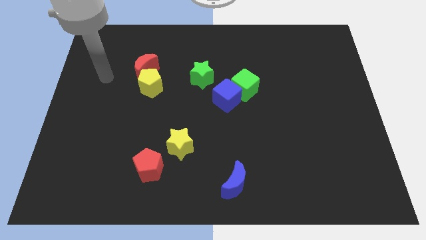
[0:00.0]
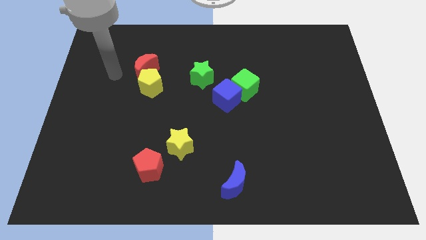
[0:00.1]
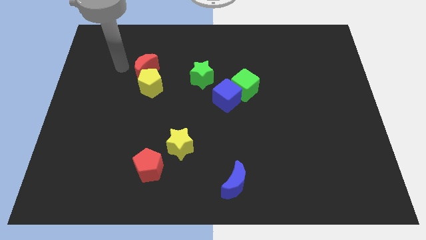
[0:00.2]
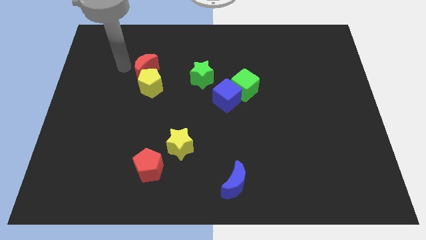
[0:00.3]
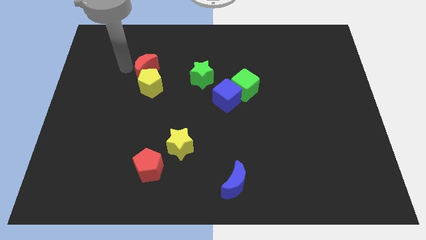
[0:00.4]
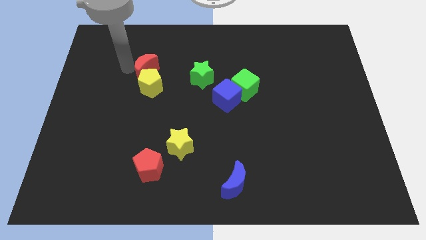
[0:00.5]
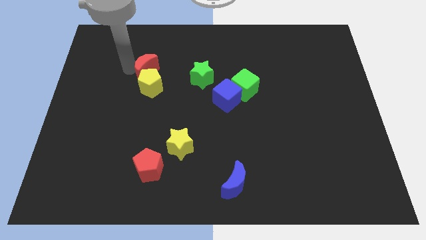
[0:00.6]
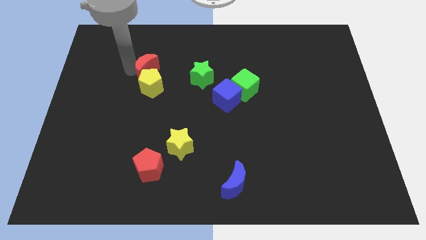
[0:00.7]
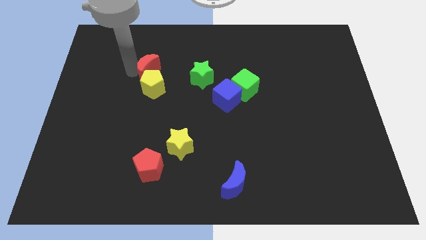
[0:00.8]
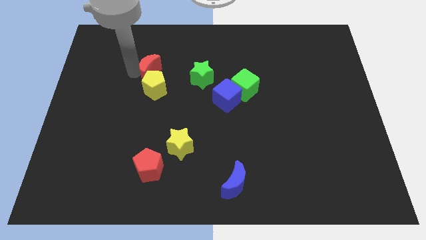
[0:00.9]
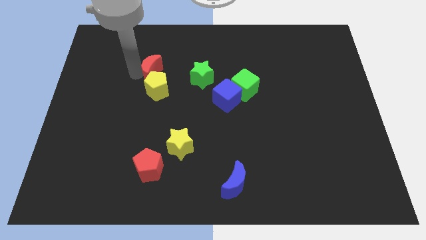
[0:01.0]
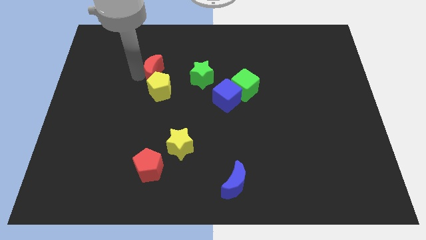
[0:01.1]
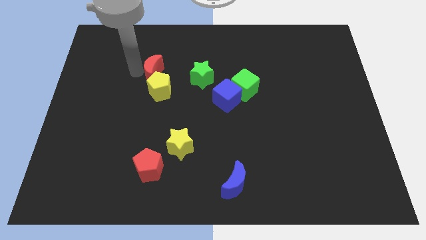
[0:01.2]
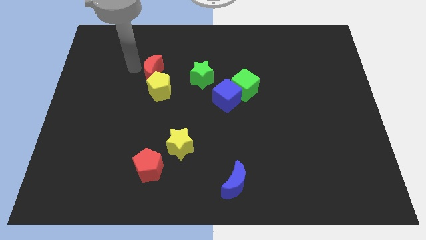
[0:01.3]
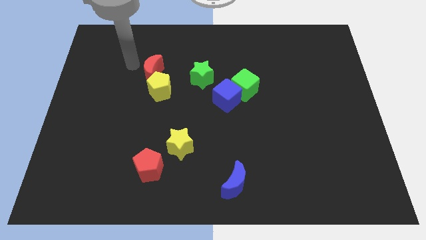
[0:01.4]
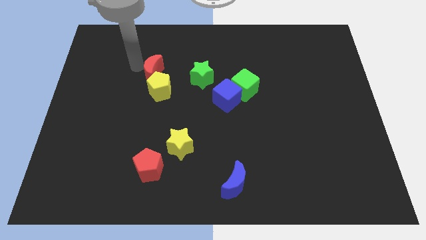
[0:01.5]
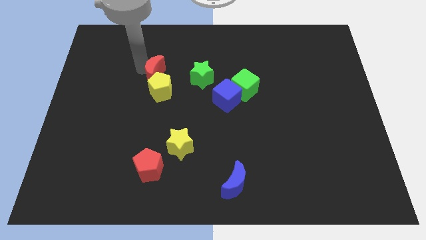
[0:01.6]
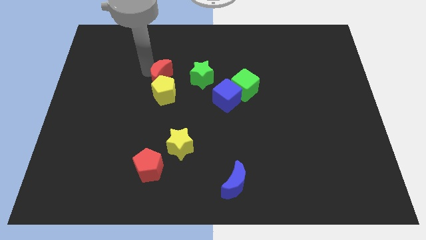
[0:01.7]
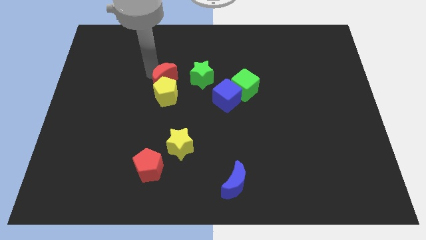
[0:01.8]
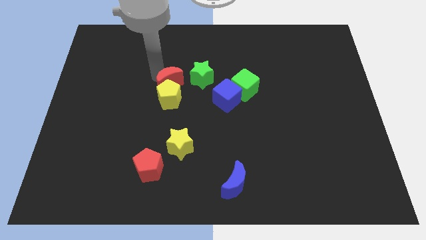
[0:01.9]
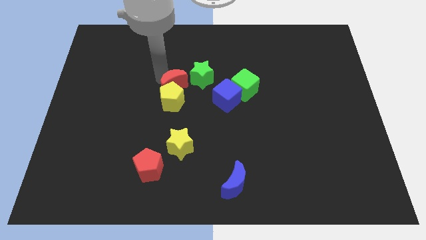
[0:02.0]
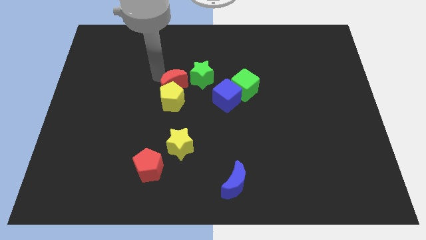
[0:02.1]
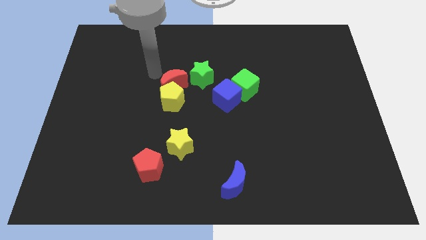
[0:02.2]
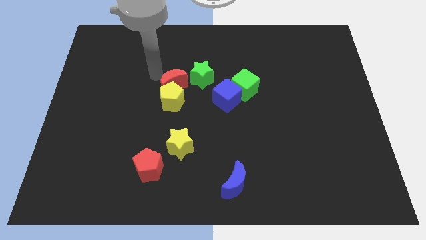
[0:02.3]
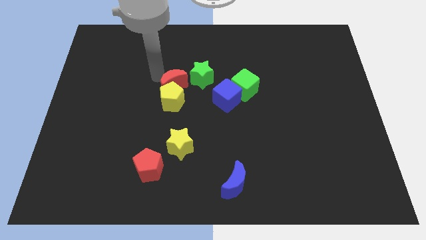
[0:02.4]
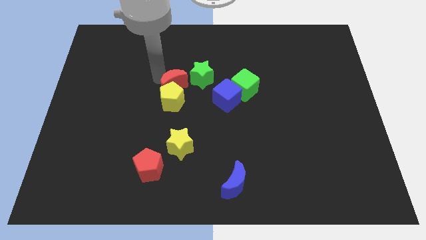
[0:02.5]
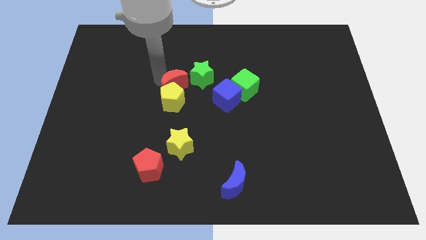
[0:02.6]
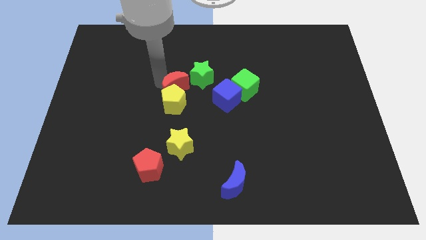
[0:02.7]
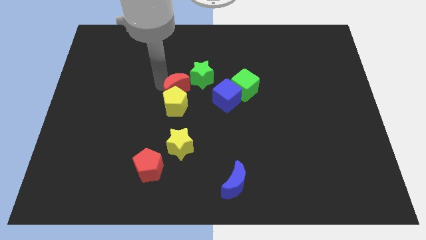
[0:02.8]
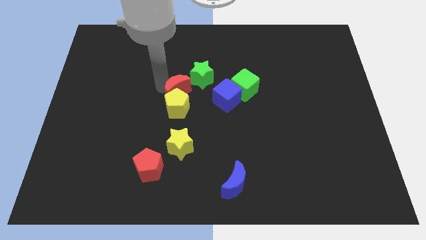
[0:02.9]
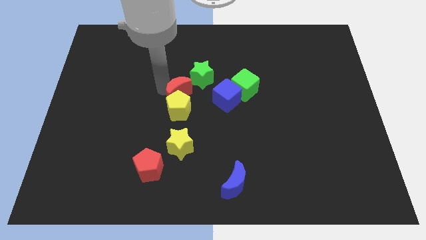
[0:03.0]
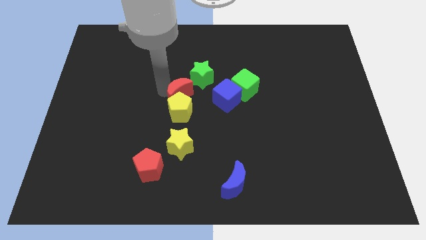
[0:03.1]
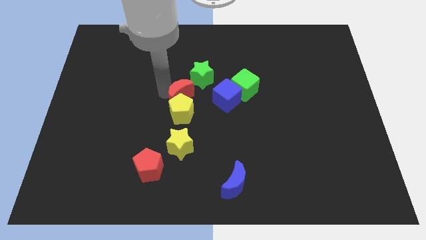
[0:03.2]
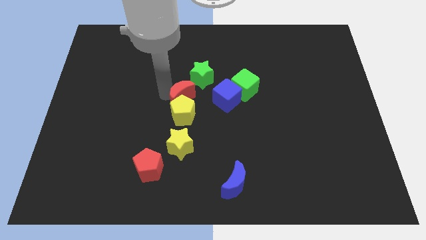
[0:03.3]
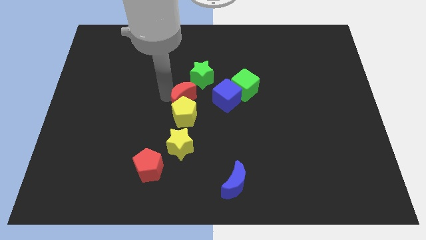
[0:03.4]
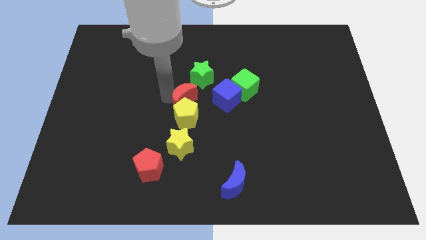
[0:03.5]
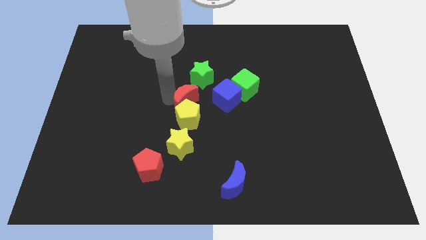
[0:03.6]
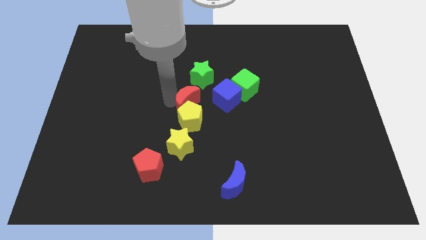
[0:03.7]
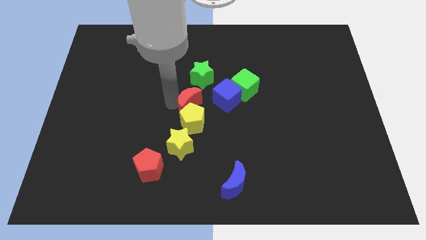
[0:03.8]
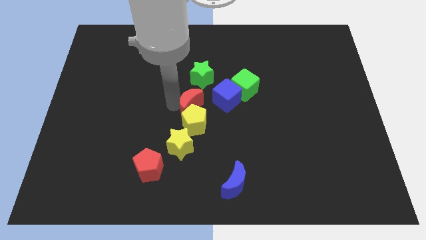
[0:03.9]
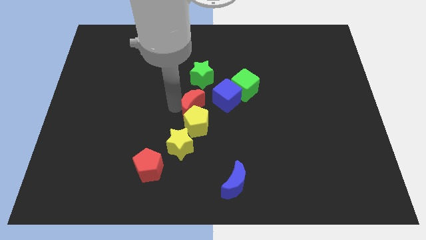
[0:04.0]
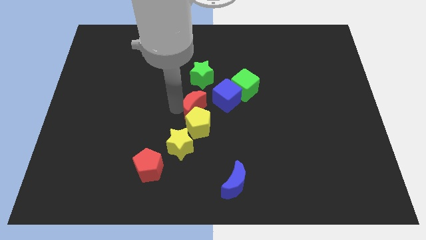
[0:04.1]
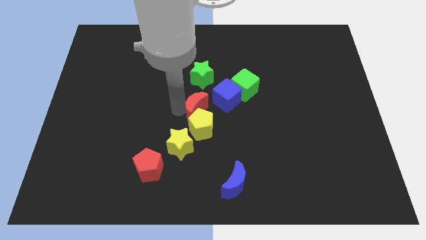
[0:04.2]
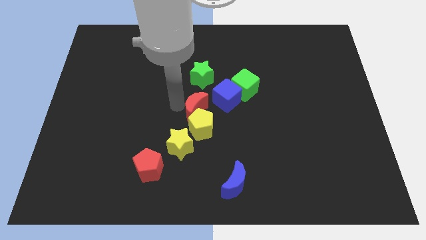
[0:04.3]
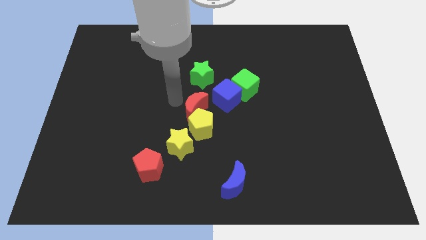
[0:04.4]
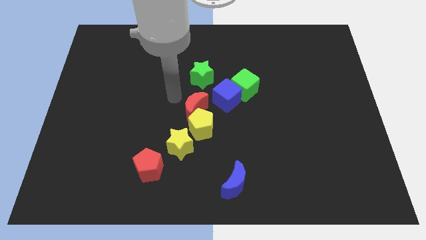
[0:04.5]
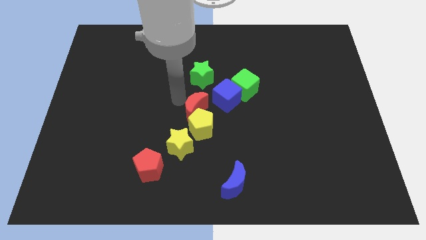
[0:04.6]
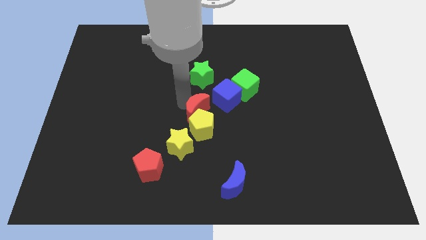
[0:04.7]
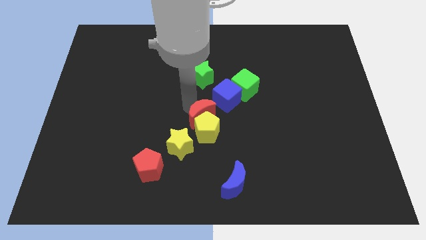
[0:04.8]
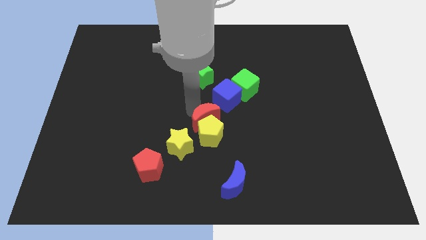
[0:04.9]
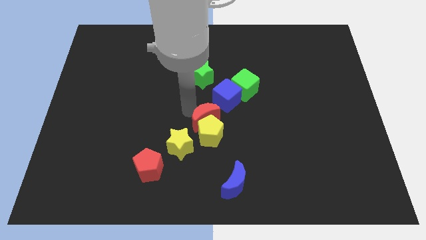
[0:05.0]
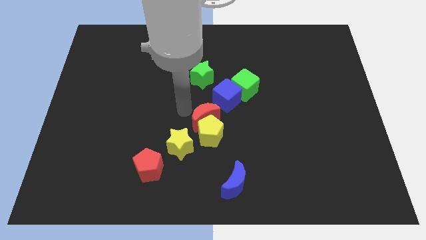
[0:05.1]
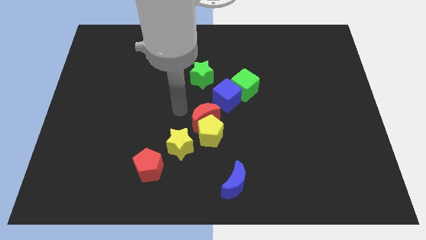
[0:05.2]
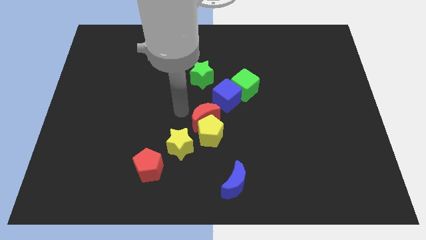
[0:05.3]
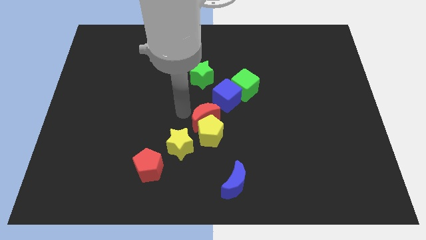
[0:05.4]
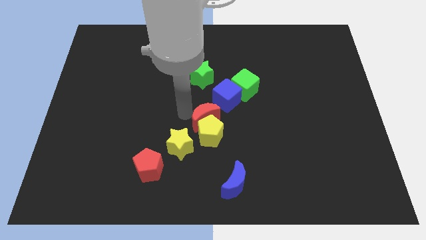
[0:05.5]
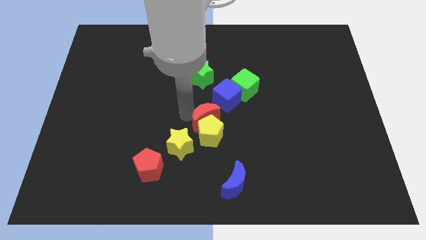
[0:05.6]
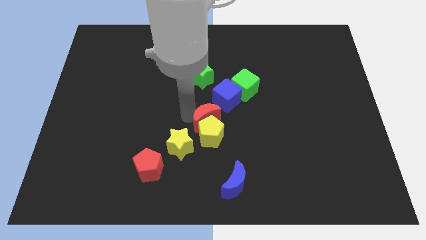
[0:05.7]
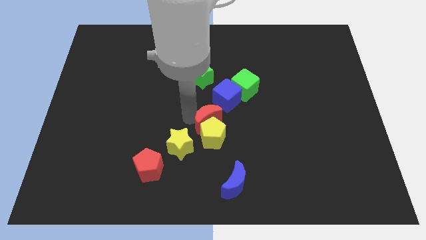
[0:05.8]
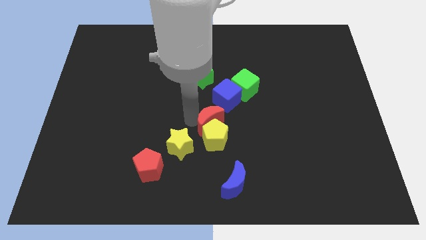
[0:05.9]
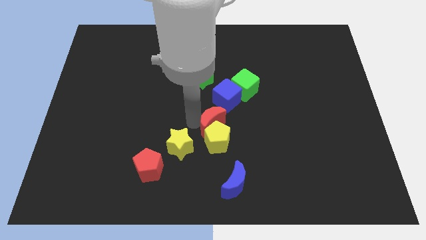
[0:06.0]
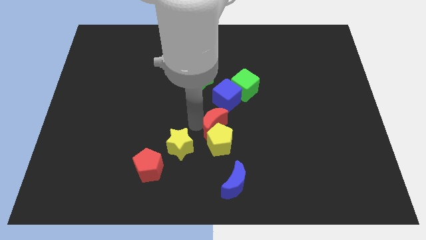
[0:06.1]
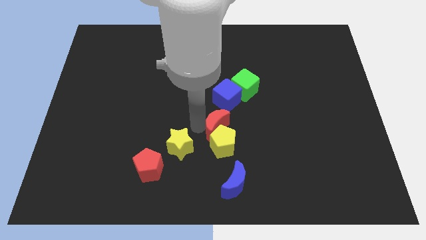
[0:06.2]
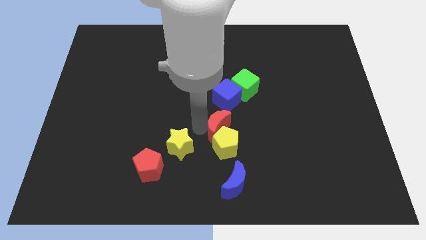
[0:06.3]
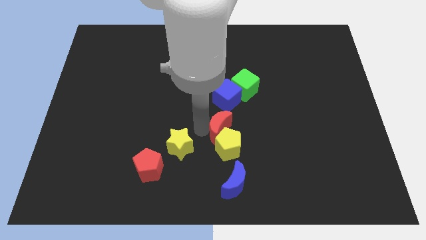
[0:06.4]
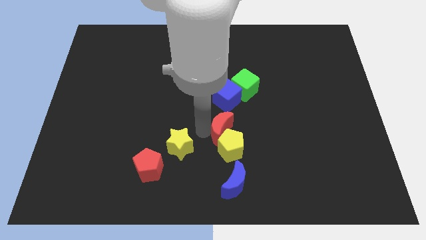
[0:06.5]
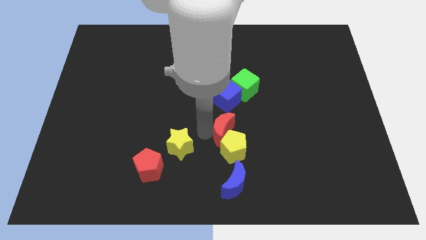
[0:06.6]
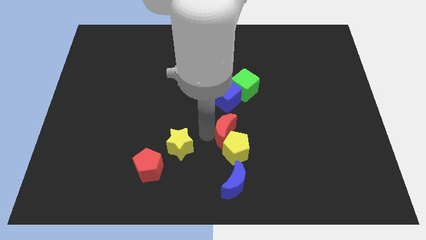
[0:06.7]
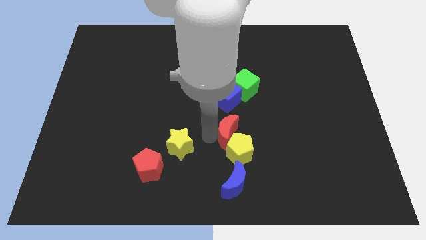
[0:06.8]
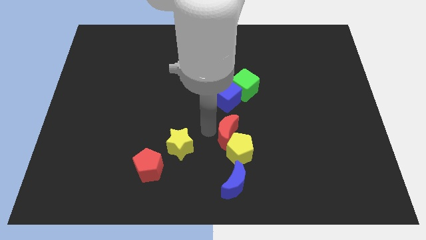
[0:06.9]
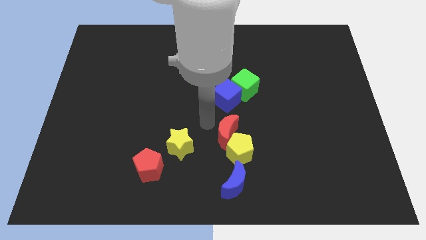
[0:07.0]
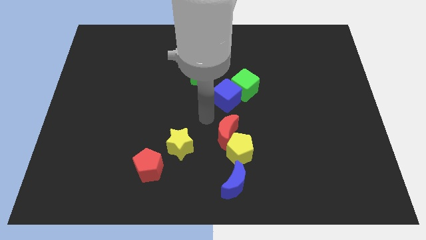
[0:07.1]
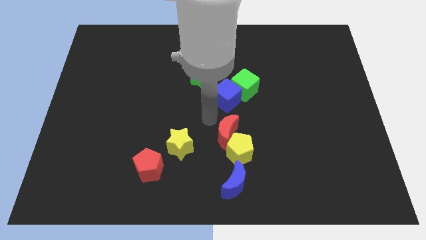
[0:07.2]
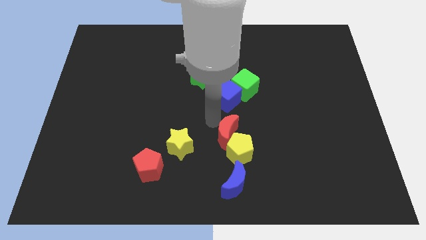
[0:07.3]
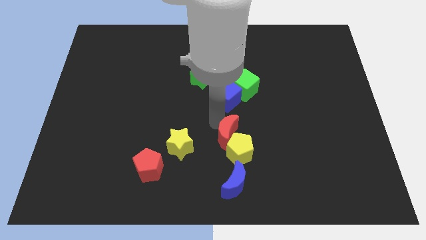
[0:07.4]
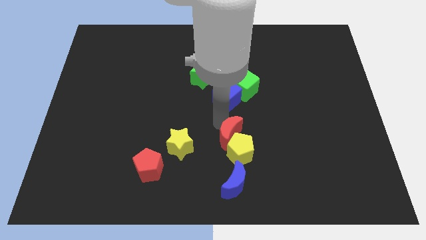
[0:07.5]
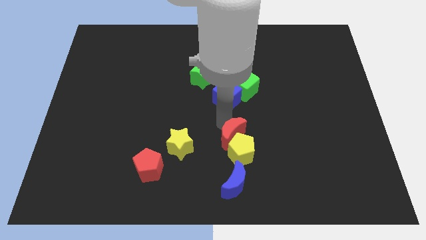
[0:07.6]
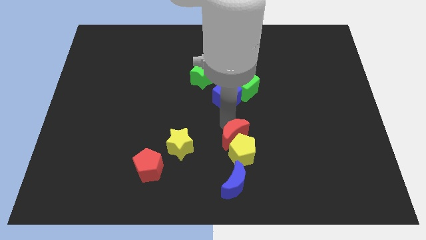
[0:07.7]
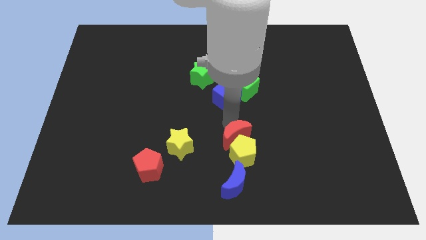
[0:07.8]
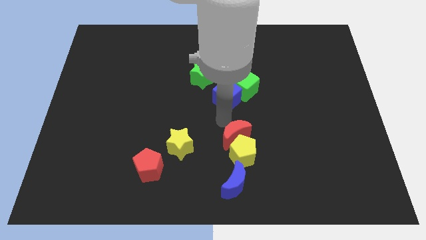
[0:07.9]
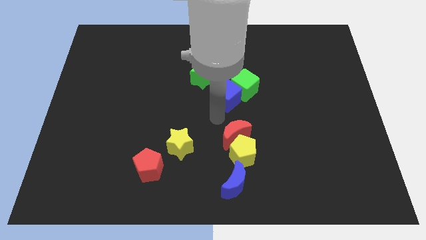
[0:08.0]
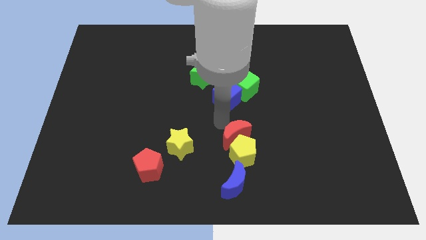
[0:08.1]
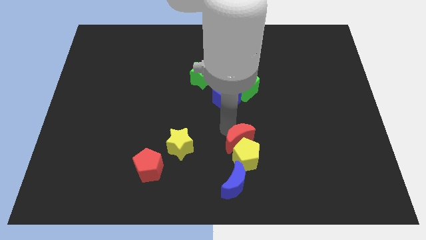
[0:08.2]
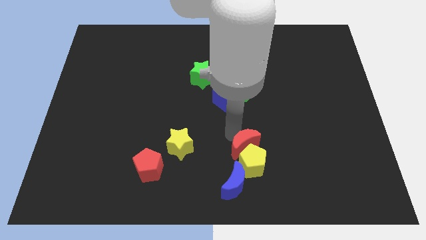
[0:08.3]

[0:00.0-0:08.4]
push the red moon to the top right of the blue moon
